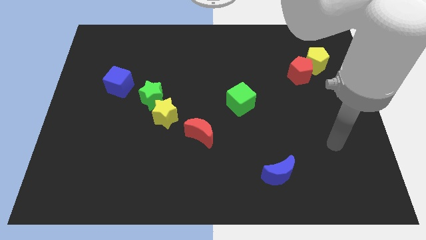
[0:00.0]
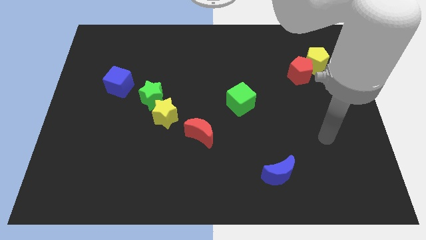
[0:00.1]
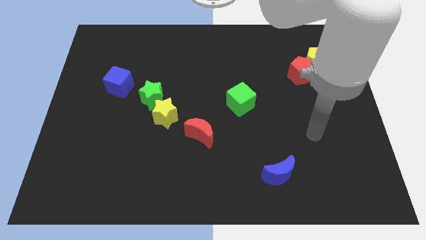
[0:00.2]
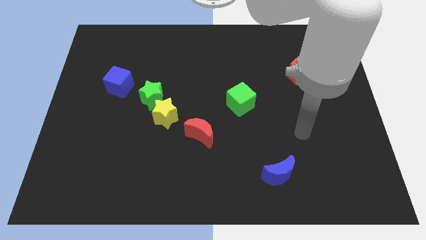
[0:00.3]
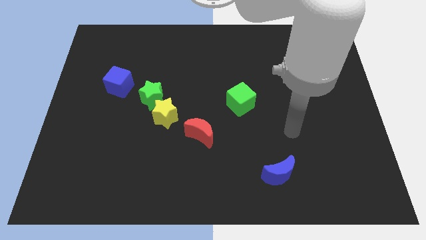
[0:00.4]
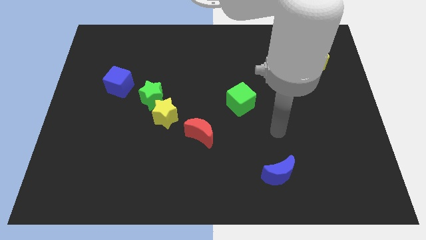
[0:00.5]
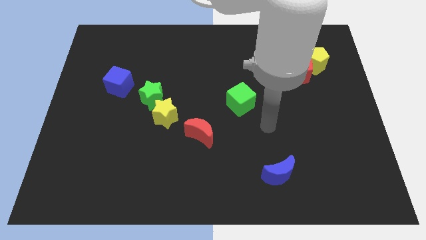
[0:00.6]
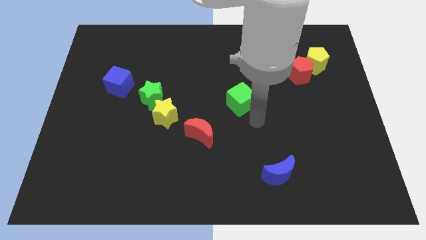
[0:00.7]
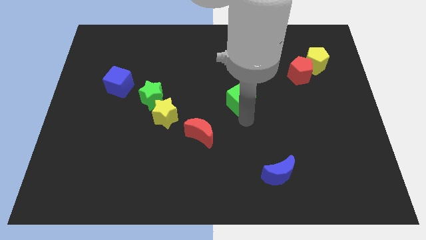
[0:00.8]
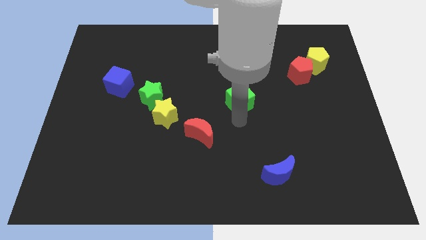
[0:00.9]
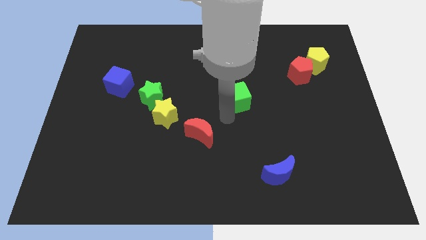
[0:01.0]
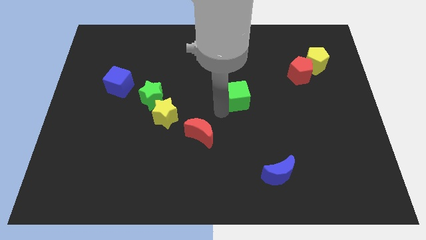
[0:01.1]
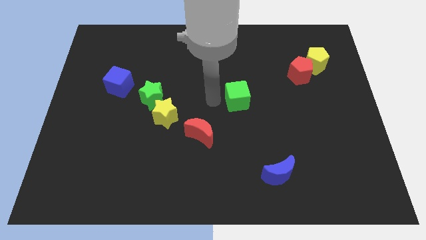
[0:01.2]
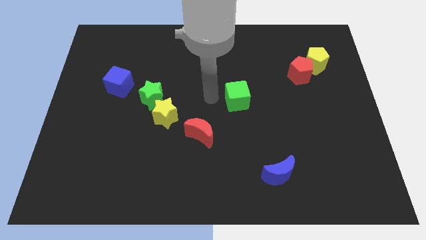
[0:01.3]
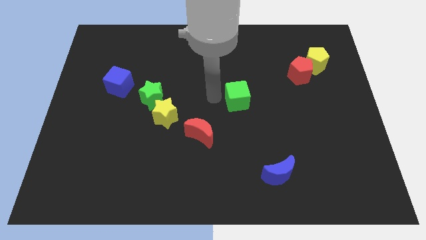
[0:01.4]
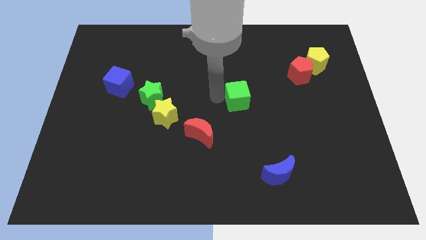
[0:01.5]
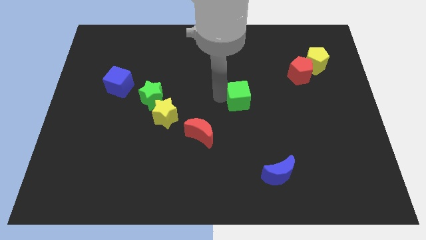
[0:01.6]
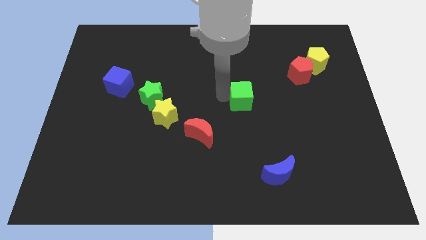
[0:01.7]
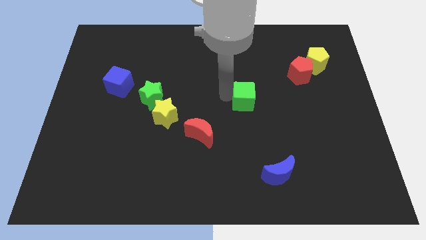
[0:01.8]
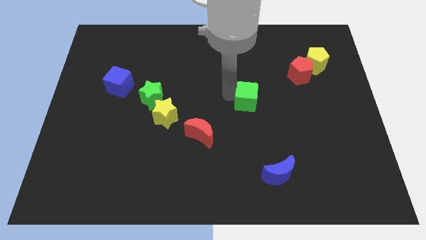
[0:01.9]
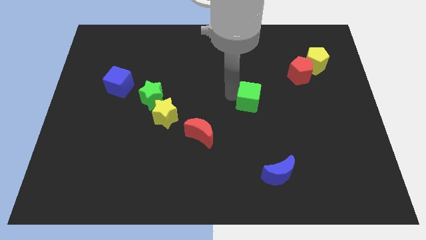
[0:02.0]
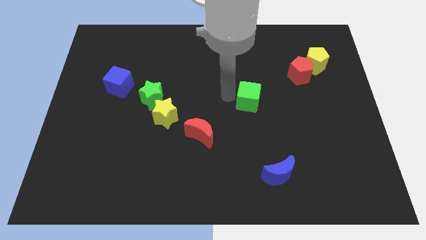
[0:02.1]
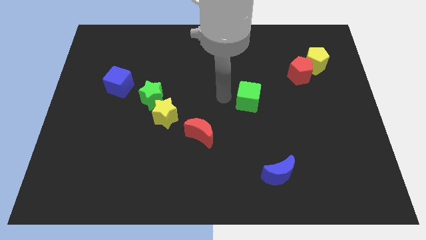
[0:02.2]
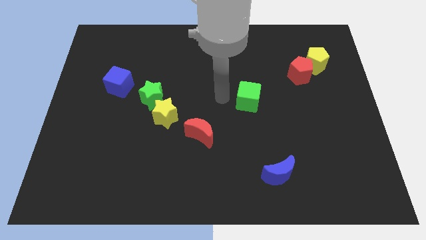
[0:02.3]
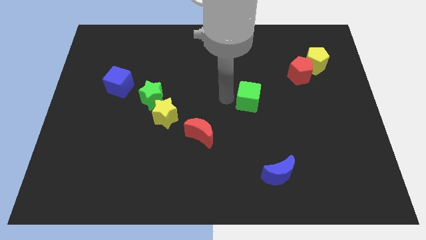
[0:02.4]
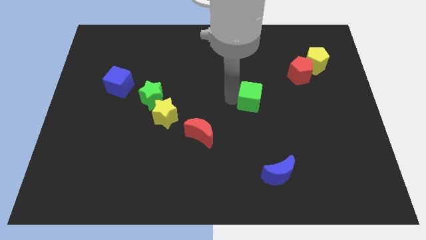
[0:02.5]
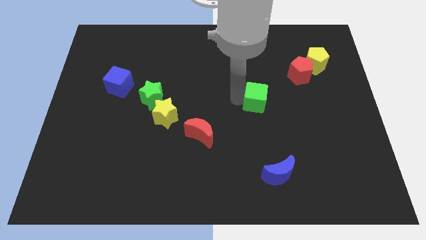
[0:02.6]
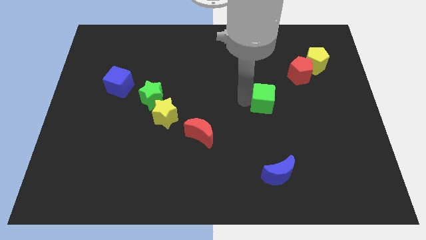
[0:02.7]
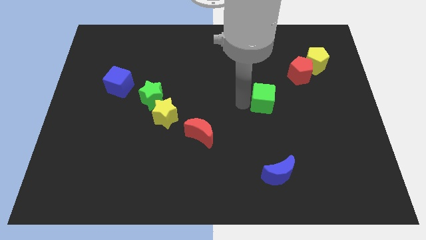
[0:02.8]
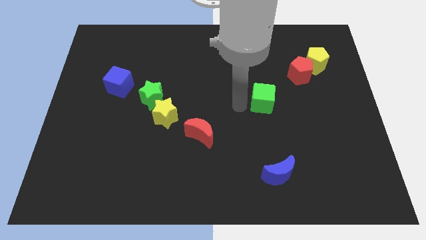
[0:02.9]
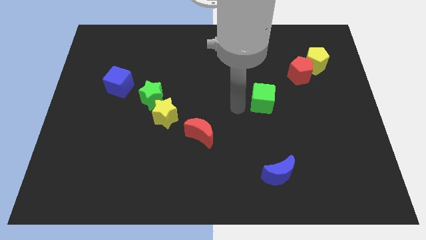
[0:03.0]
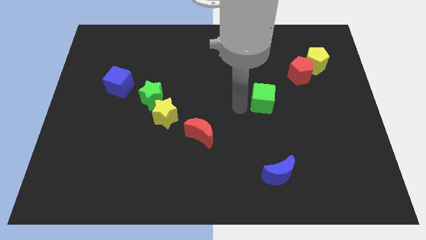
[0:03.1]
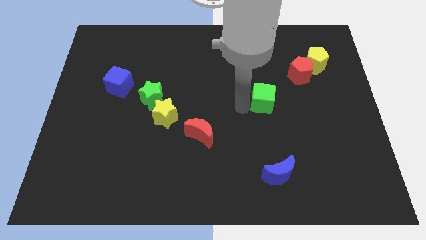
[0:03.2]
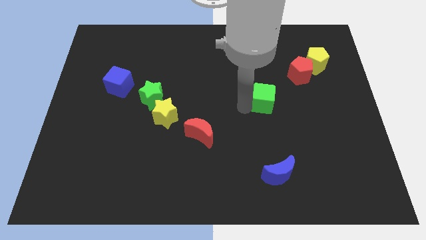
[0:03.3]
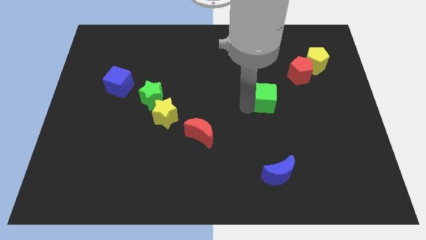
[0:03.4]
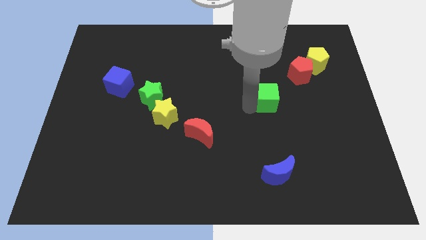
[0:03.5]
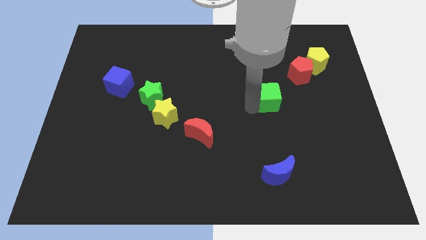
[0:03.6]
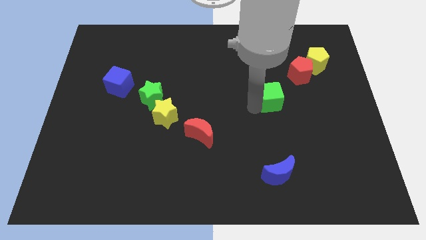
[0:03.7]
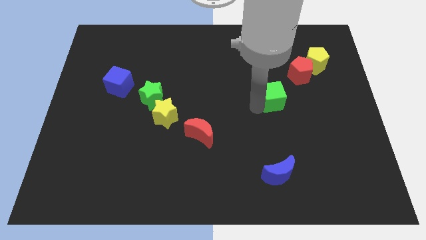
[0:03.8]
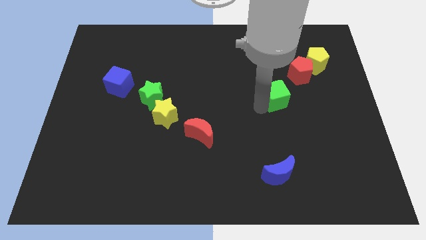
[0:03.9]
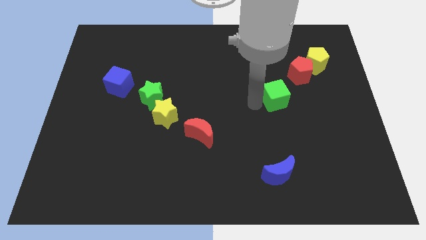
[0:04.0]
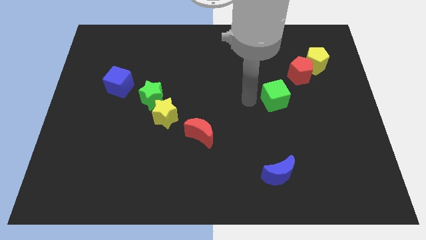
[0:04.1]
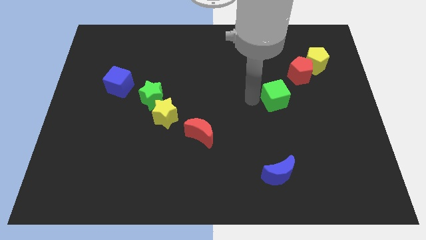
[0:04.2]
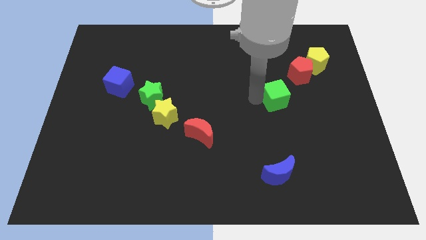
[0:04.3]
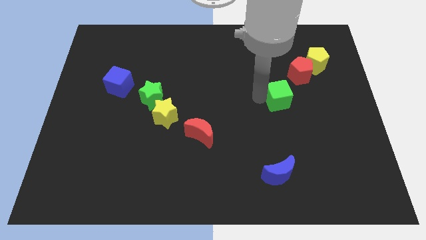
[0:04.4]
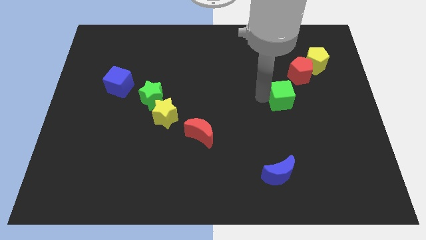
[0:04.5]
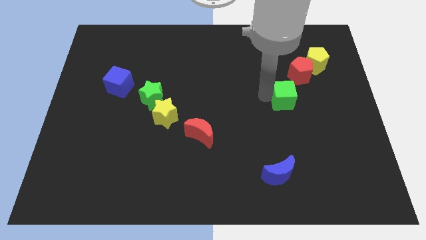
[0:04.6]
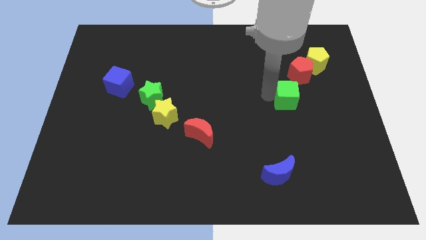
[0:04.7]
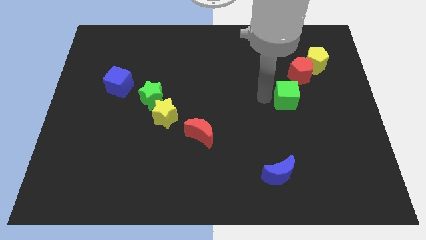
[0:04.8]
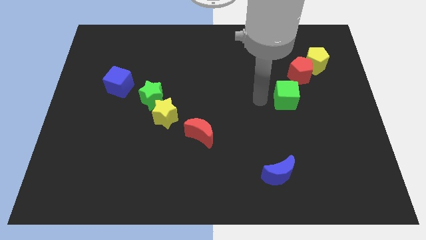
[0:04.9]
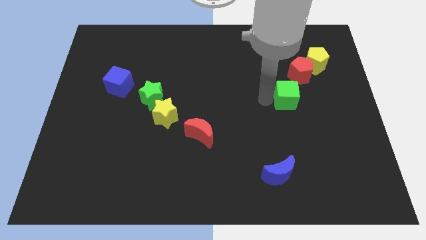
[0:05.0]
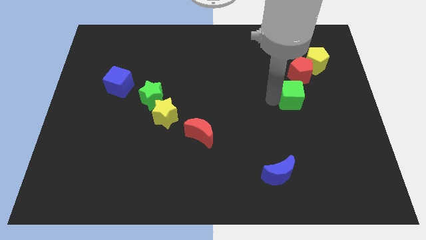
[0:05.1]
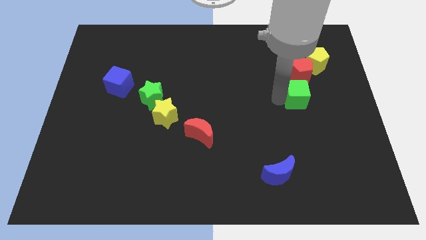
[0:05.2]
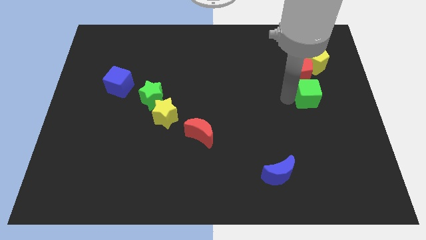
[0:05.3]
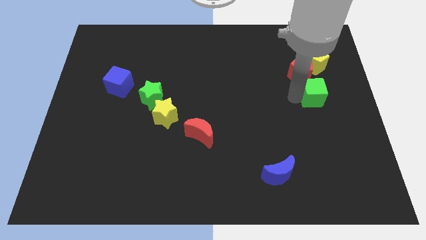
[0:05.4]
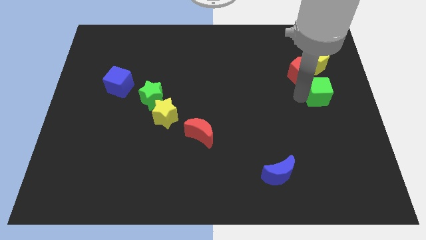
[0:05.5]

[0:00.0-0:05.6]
slide the green cube to the right side of the board
